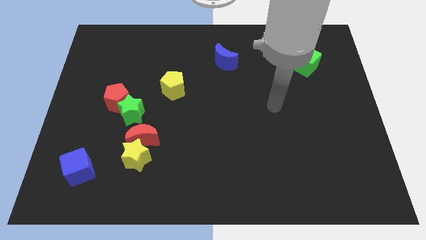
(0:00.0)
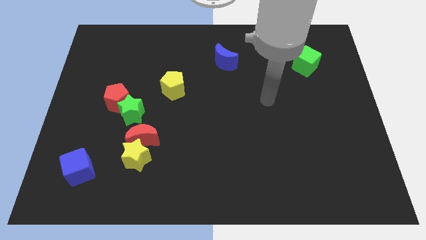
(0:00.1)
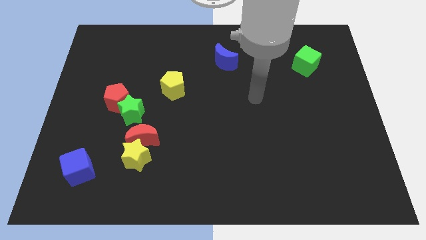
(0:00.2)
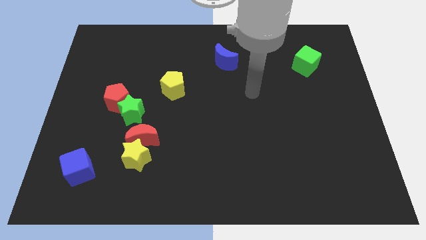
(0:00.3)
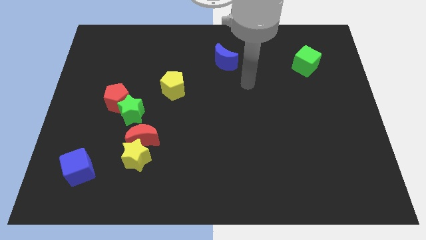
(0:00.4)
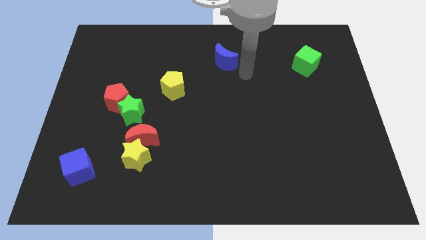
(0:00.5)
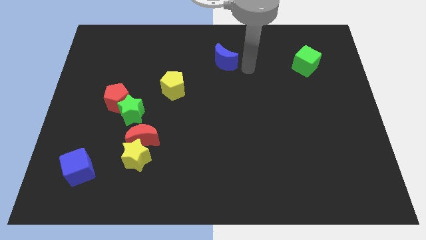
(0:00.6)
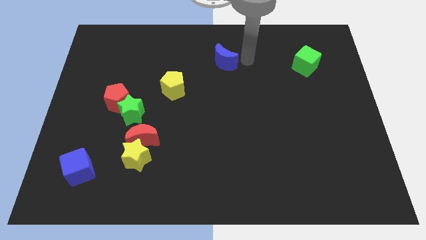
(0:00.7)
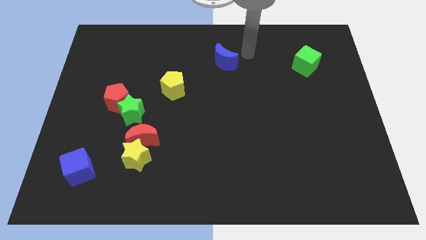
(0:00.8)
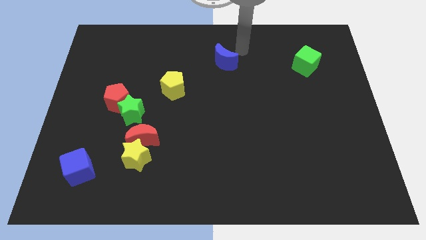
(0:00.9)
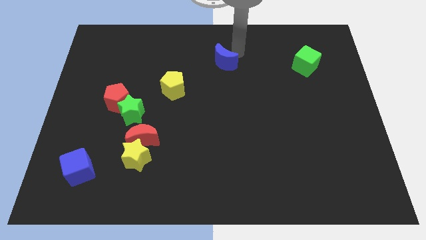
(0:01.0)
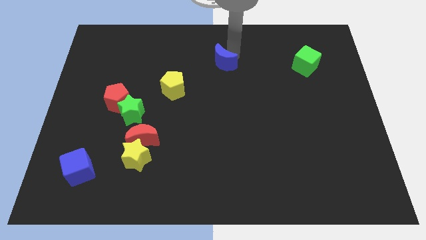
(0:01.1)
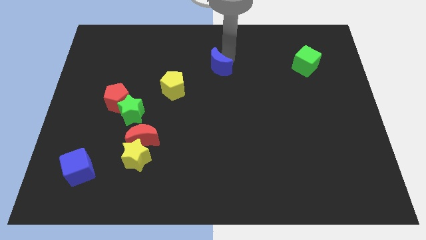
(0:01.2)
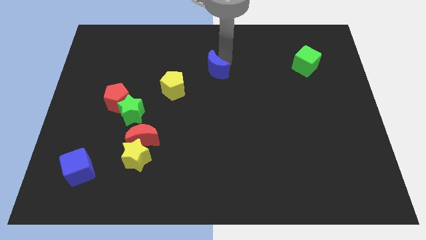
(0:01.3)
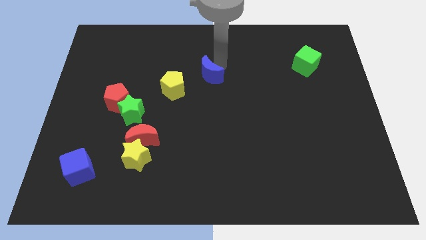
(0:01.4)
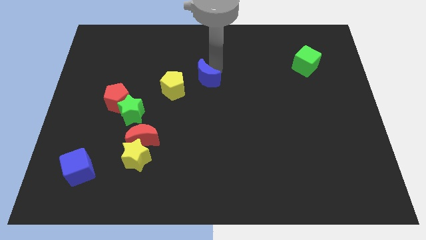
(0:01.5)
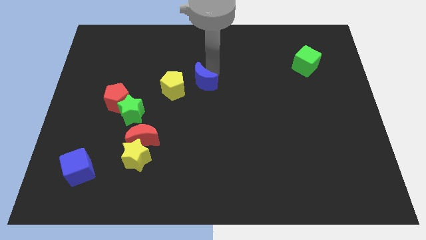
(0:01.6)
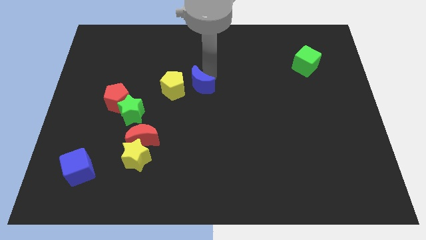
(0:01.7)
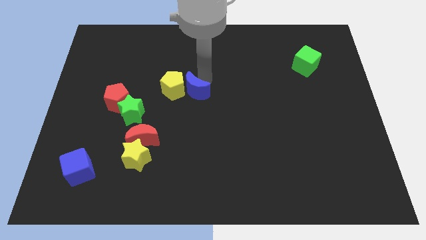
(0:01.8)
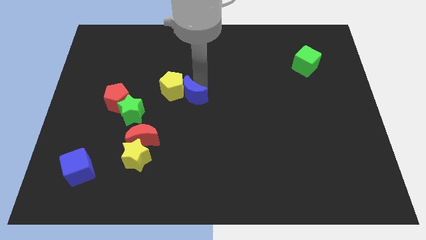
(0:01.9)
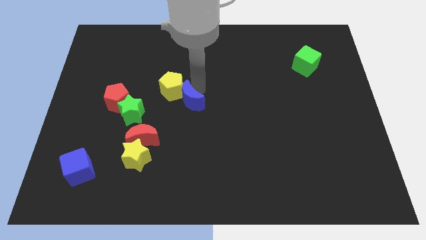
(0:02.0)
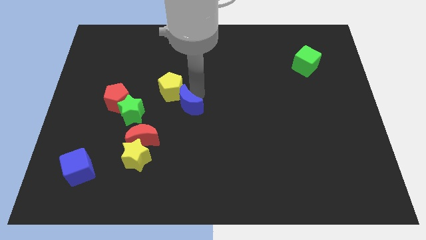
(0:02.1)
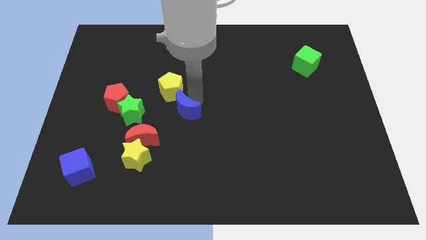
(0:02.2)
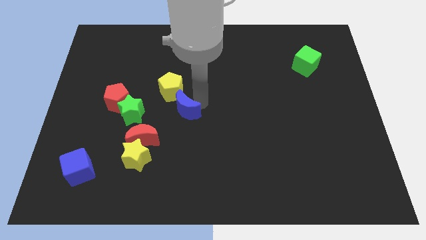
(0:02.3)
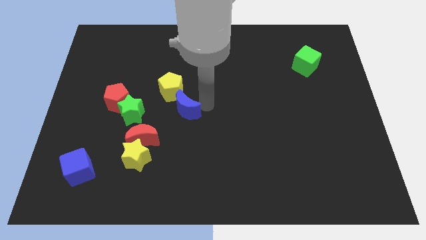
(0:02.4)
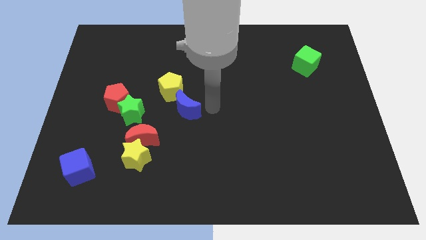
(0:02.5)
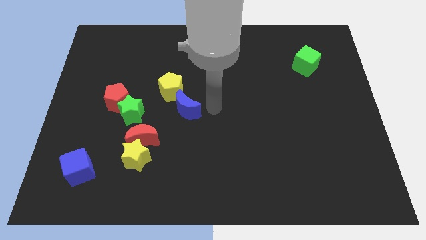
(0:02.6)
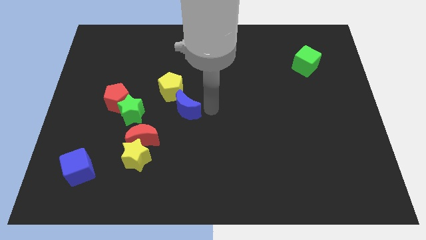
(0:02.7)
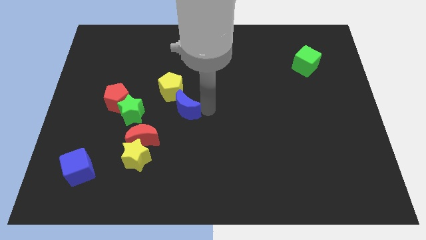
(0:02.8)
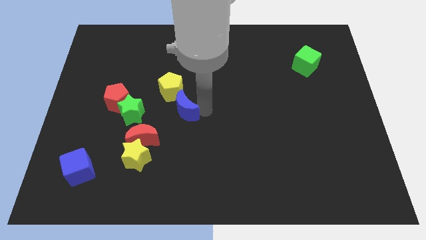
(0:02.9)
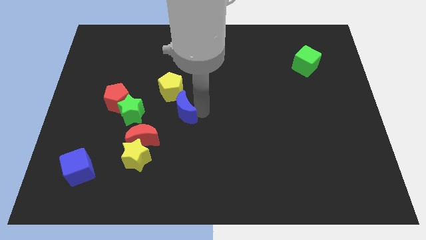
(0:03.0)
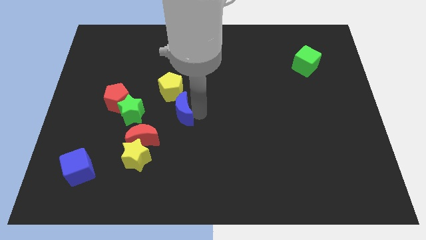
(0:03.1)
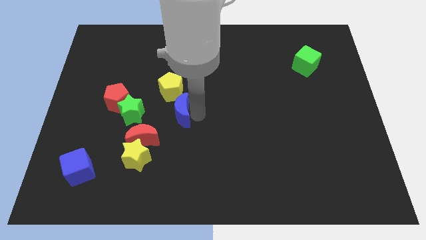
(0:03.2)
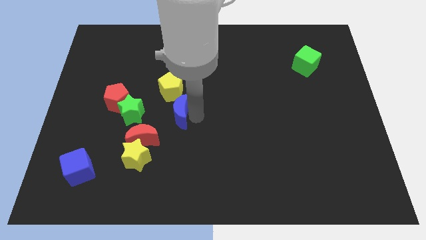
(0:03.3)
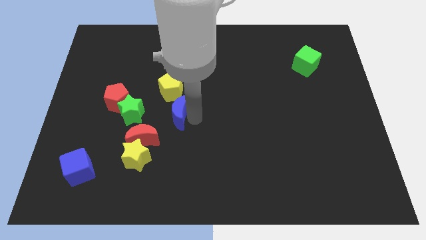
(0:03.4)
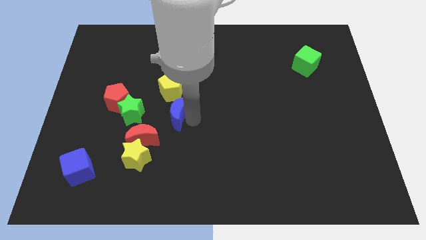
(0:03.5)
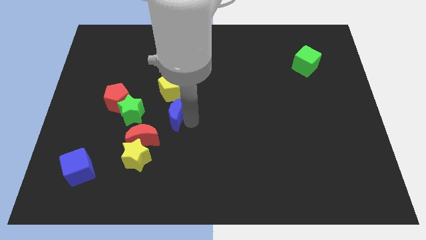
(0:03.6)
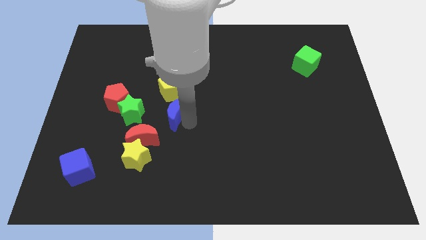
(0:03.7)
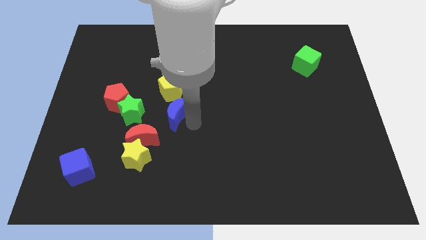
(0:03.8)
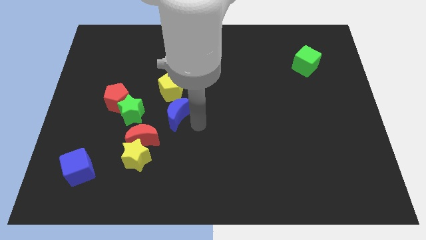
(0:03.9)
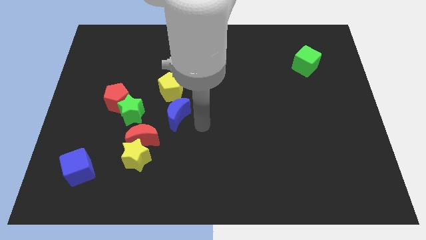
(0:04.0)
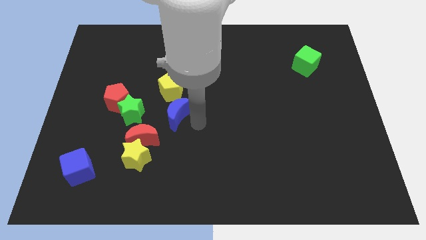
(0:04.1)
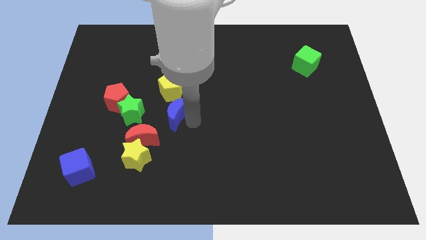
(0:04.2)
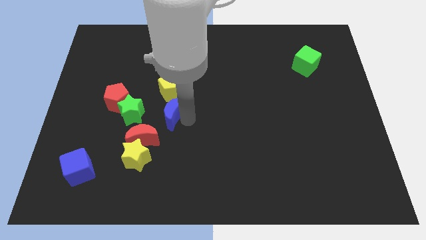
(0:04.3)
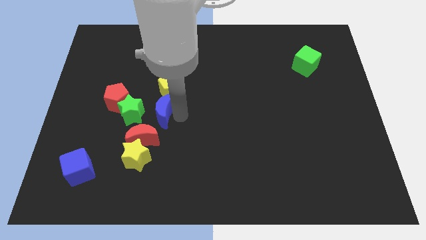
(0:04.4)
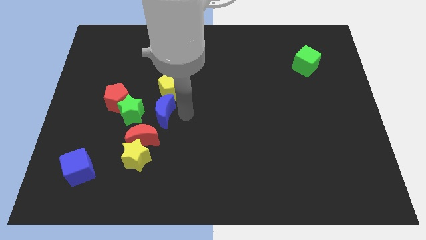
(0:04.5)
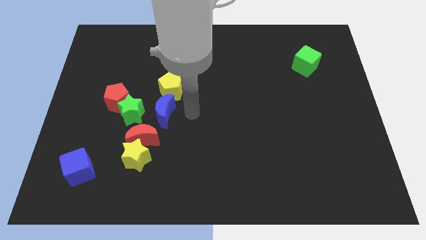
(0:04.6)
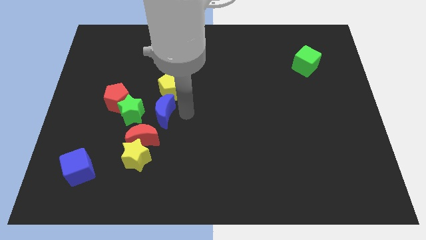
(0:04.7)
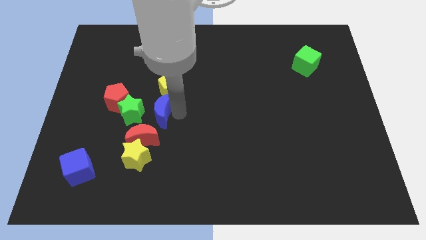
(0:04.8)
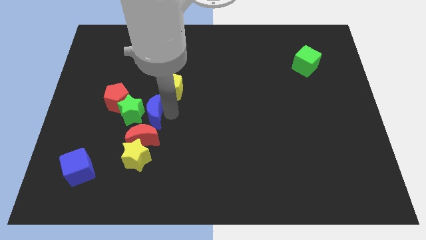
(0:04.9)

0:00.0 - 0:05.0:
slide the blue moon next to the green star

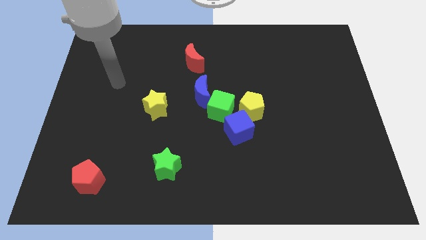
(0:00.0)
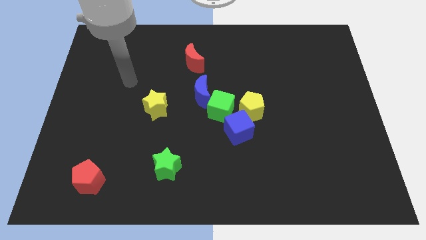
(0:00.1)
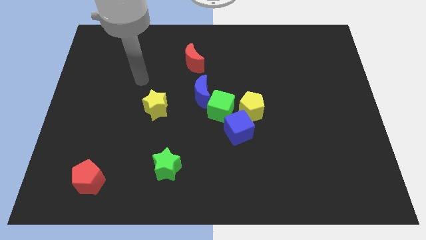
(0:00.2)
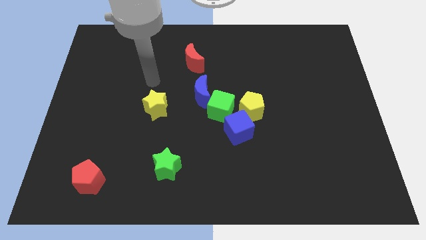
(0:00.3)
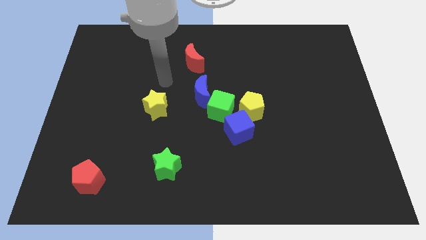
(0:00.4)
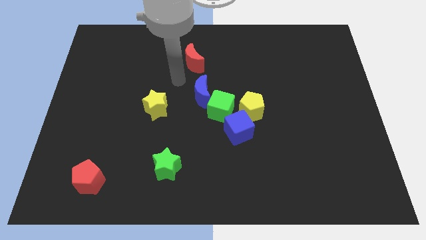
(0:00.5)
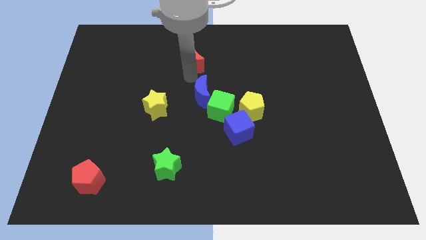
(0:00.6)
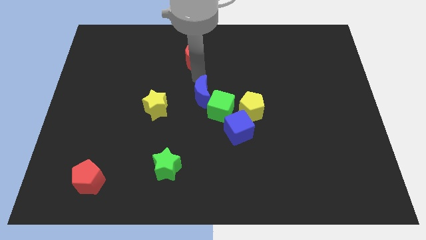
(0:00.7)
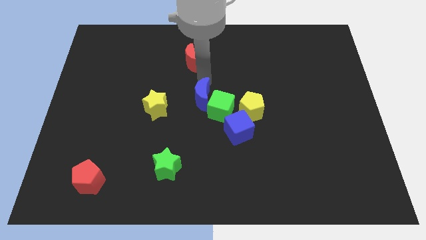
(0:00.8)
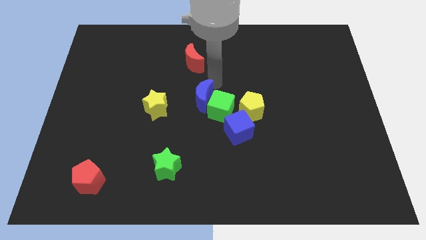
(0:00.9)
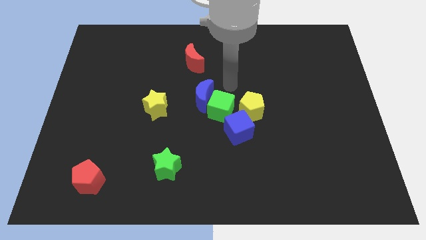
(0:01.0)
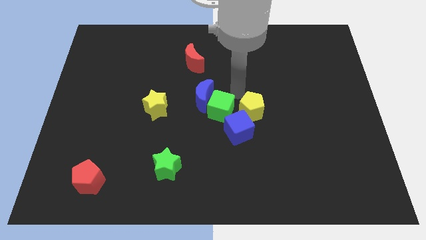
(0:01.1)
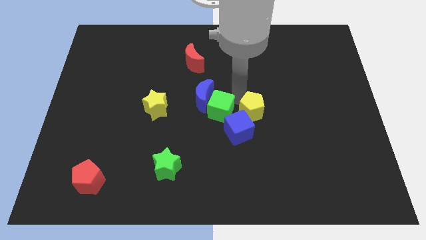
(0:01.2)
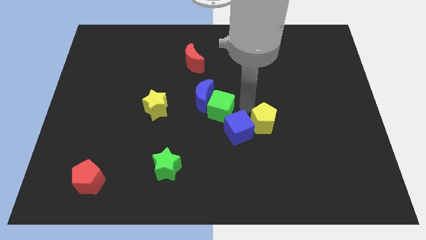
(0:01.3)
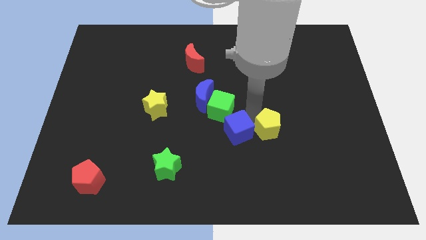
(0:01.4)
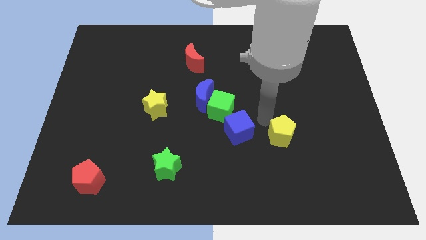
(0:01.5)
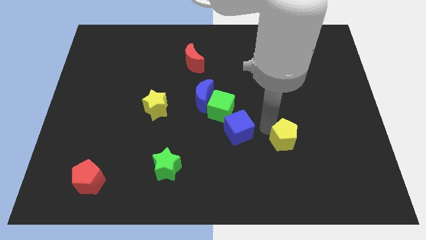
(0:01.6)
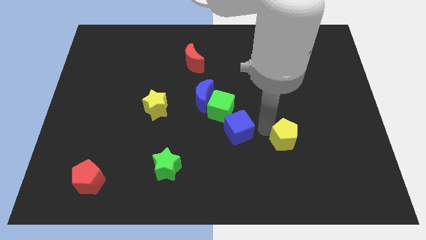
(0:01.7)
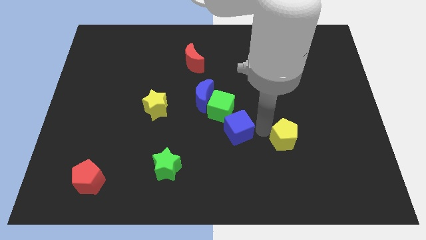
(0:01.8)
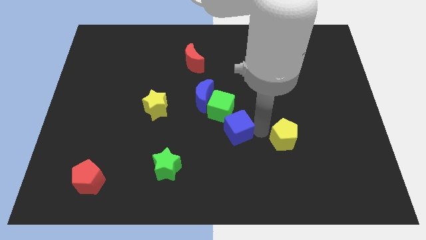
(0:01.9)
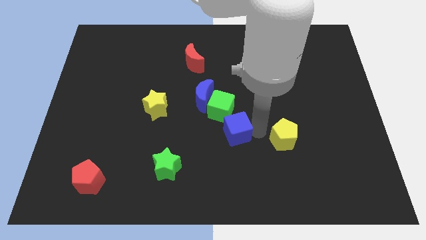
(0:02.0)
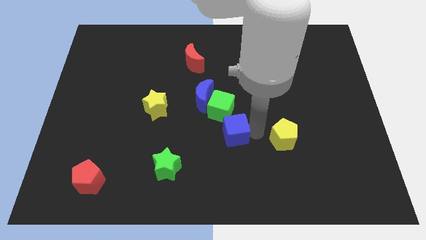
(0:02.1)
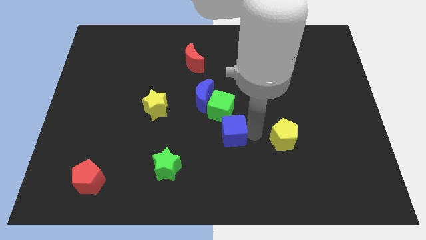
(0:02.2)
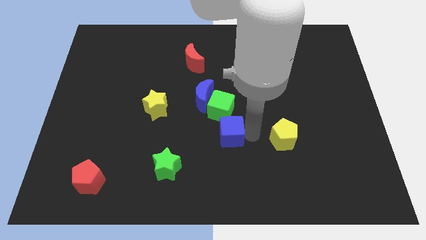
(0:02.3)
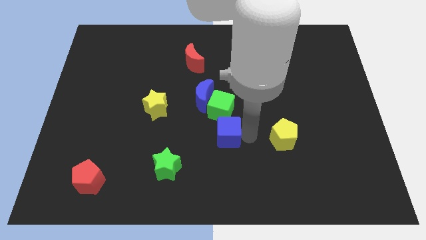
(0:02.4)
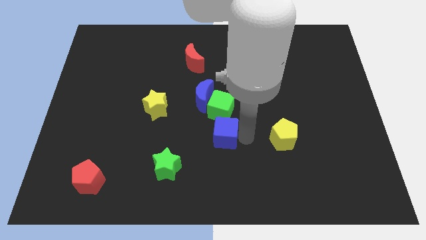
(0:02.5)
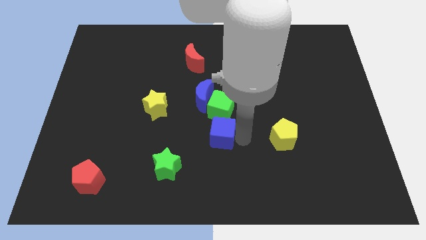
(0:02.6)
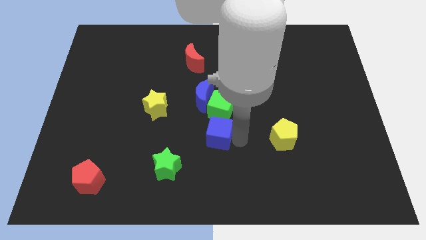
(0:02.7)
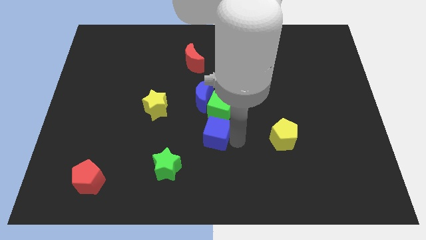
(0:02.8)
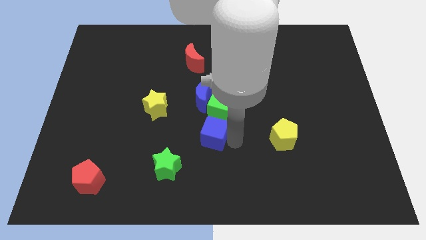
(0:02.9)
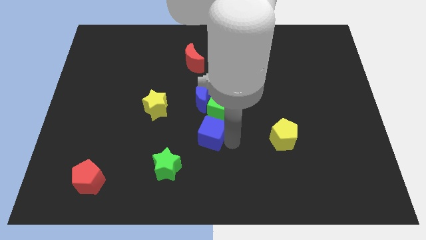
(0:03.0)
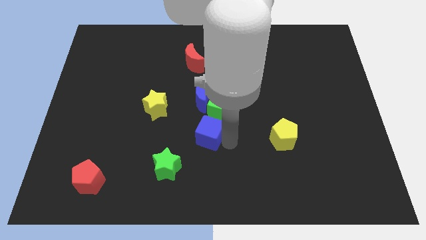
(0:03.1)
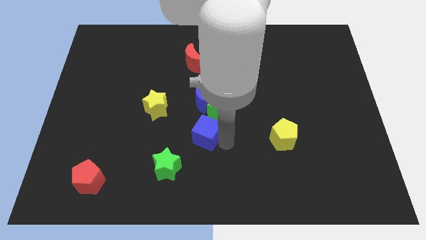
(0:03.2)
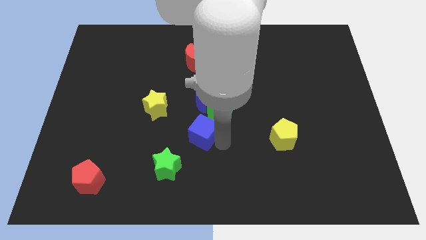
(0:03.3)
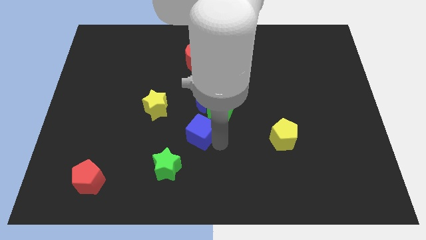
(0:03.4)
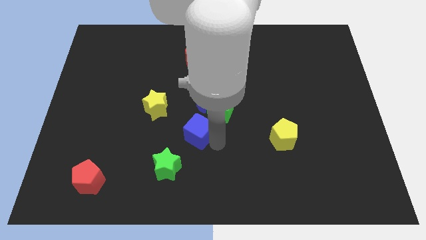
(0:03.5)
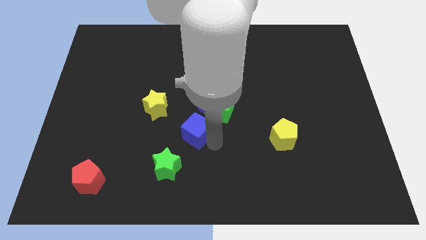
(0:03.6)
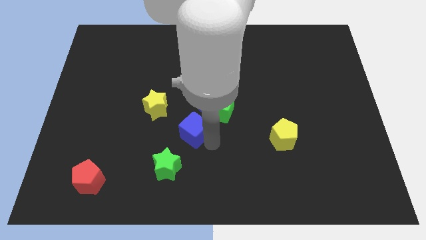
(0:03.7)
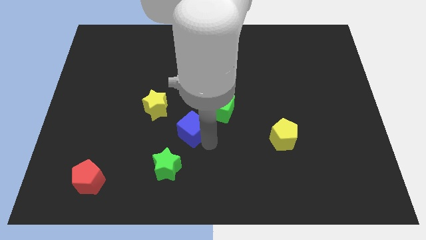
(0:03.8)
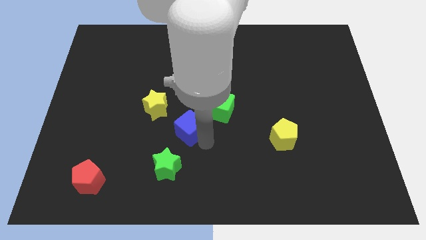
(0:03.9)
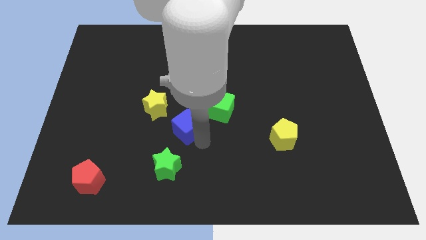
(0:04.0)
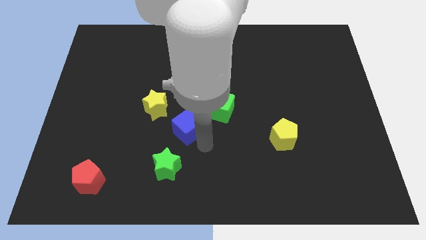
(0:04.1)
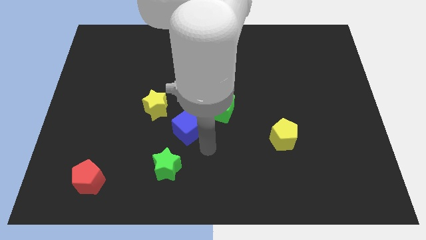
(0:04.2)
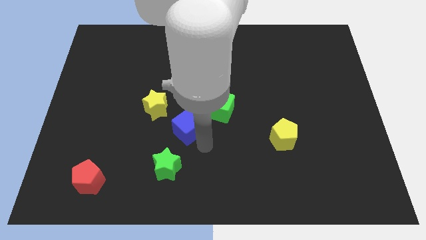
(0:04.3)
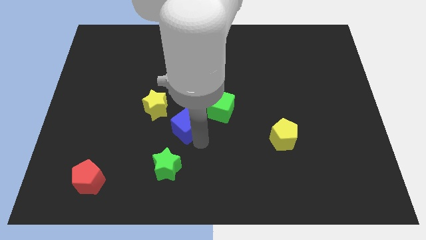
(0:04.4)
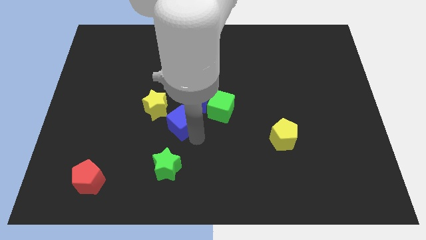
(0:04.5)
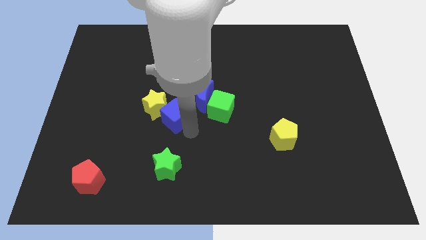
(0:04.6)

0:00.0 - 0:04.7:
put the blue cube close to the yellow star
